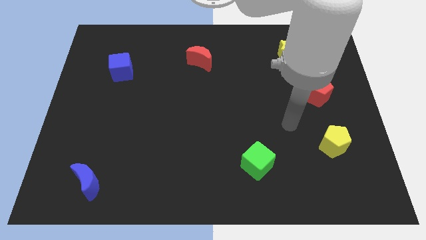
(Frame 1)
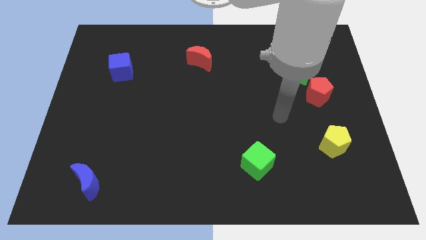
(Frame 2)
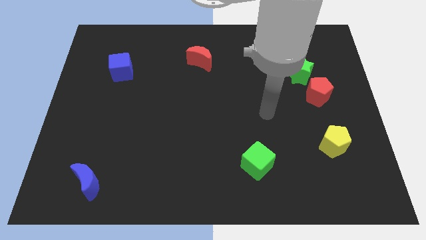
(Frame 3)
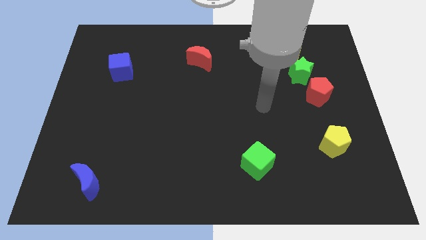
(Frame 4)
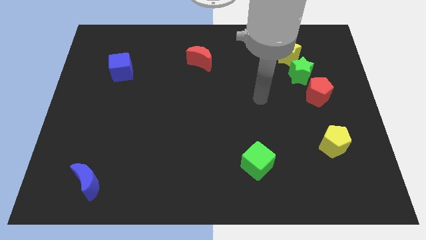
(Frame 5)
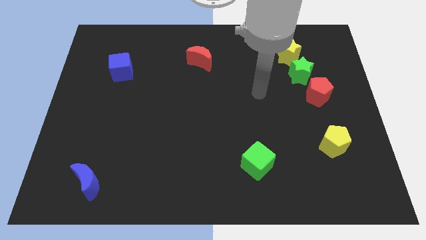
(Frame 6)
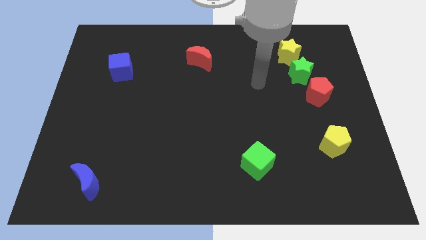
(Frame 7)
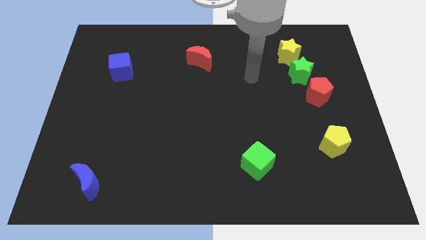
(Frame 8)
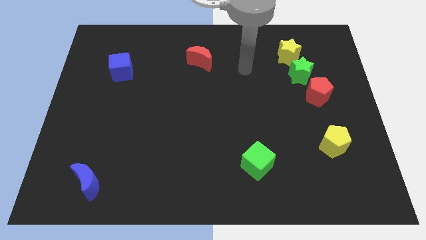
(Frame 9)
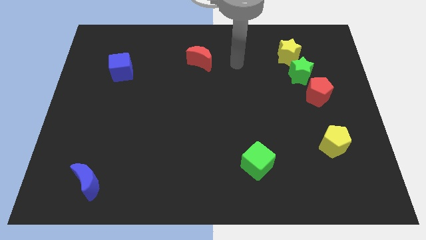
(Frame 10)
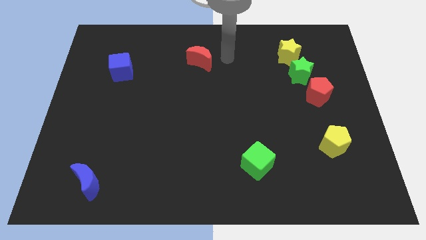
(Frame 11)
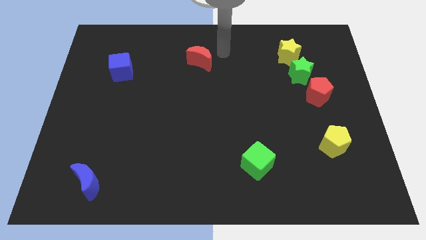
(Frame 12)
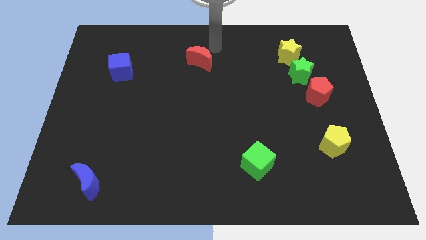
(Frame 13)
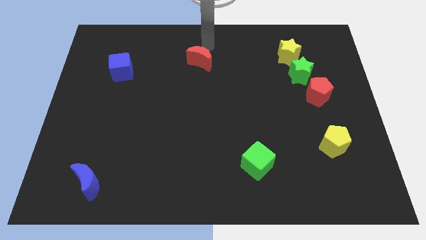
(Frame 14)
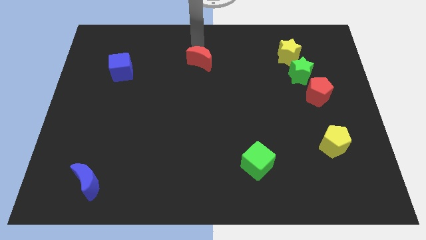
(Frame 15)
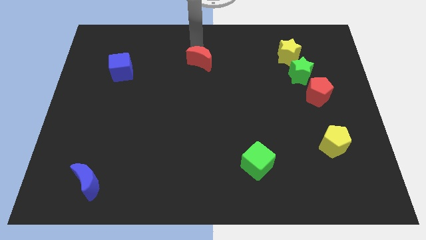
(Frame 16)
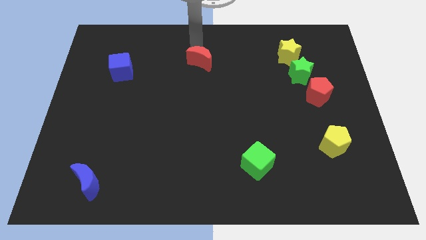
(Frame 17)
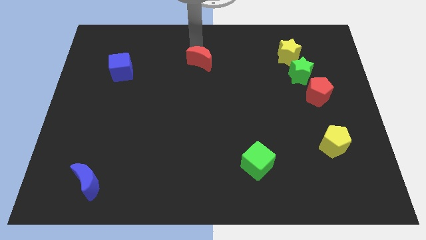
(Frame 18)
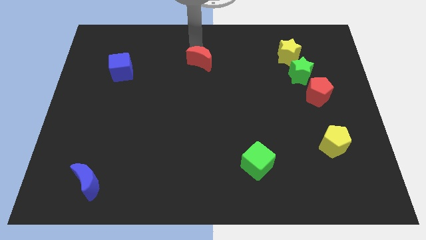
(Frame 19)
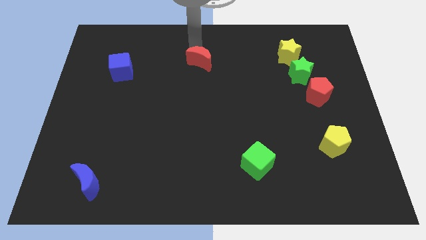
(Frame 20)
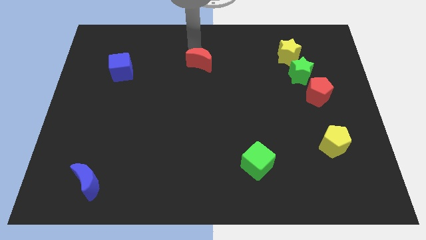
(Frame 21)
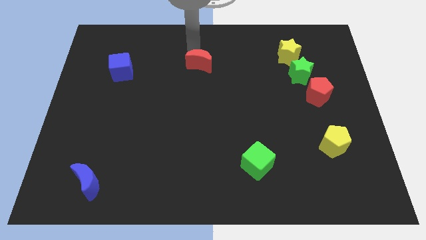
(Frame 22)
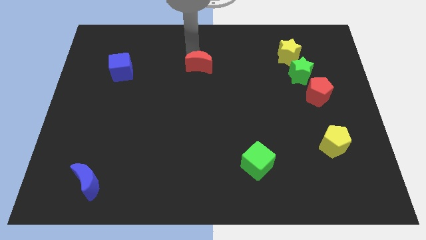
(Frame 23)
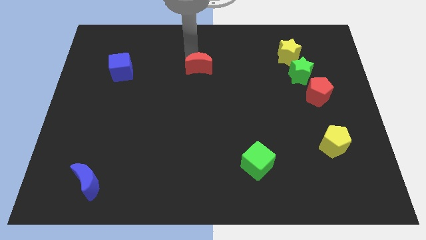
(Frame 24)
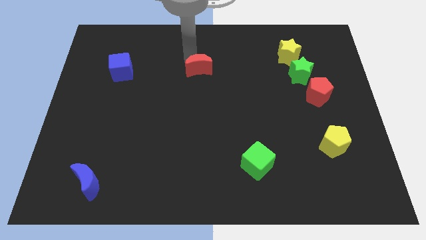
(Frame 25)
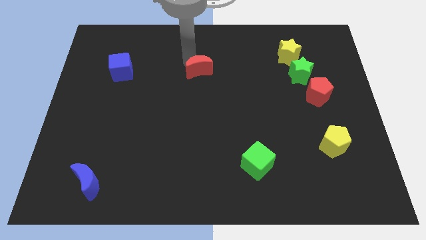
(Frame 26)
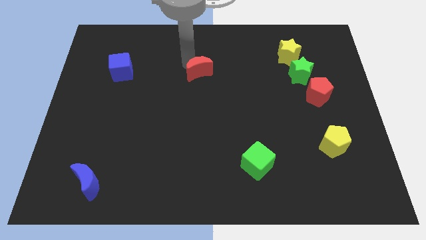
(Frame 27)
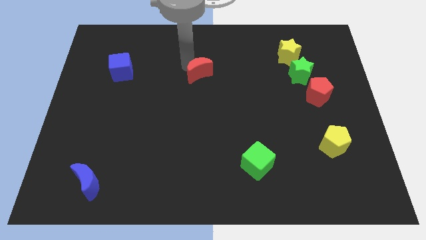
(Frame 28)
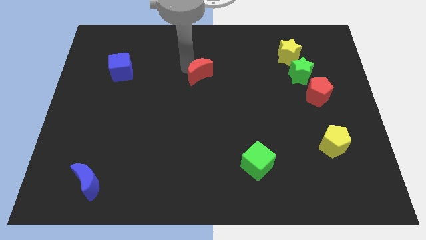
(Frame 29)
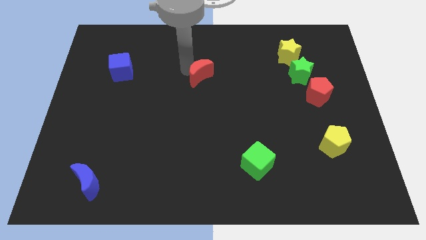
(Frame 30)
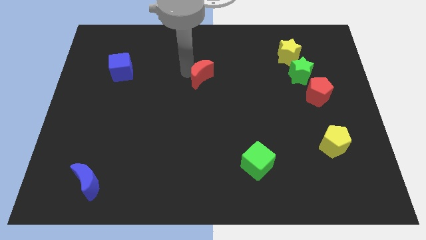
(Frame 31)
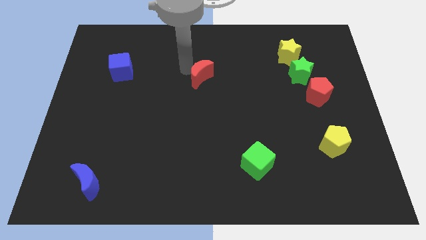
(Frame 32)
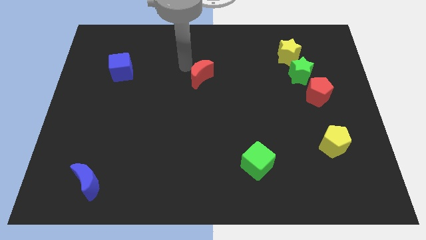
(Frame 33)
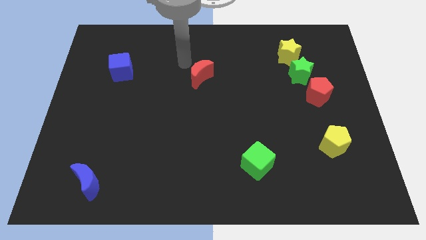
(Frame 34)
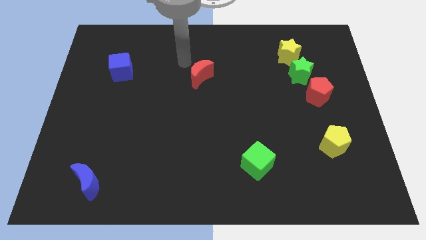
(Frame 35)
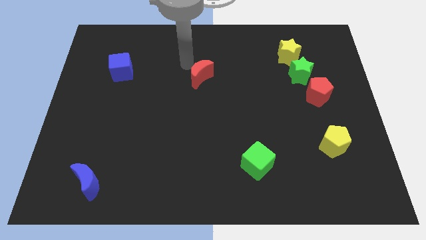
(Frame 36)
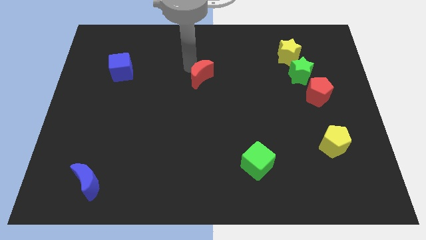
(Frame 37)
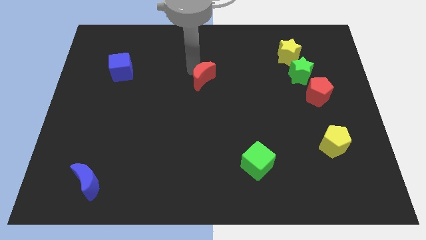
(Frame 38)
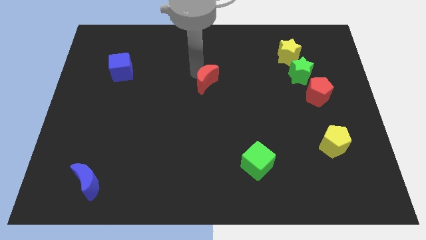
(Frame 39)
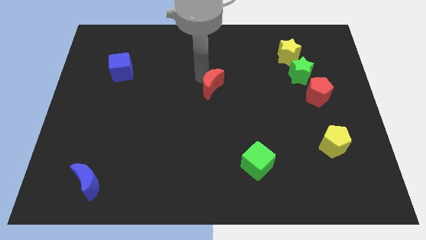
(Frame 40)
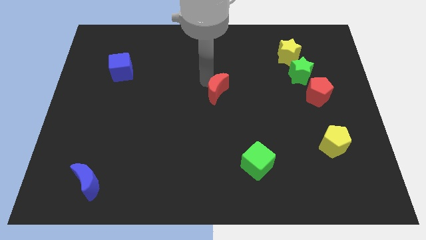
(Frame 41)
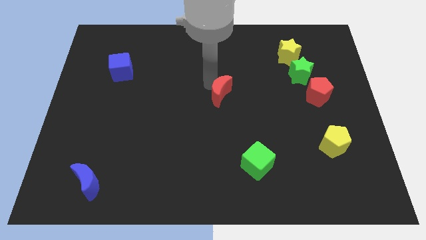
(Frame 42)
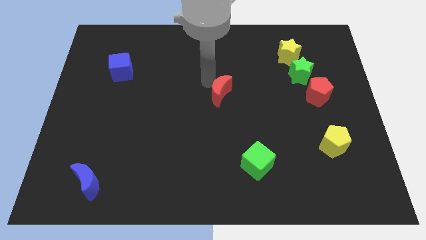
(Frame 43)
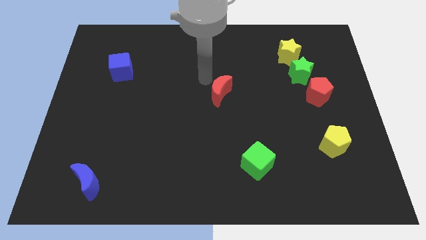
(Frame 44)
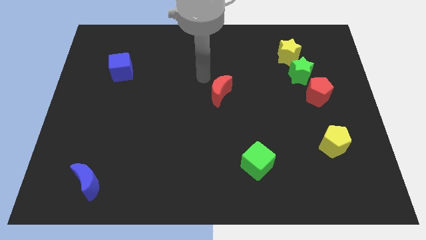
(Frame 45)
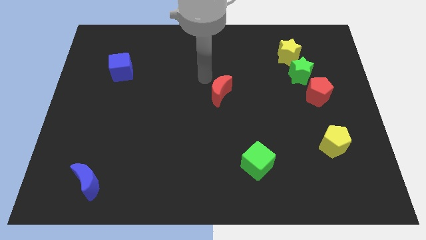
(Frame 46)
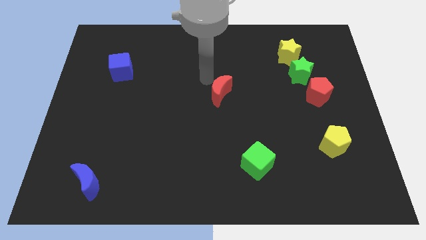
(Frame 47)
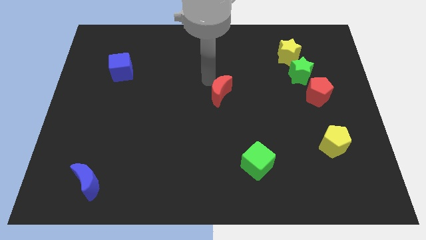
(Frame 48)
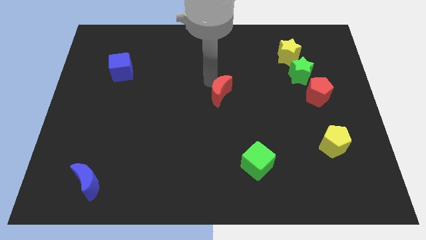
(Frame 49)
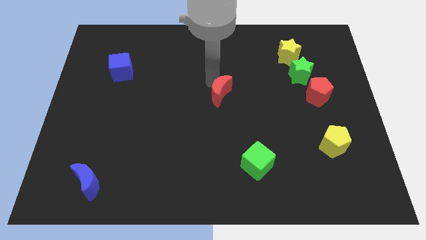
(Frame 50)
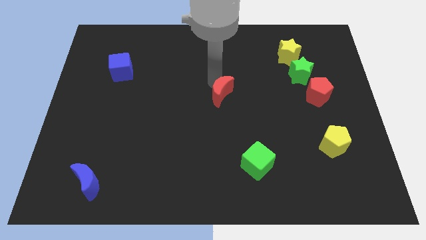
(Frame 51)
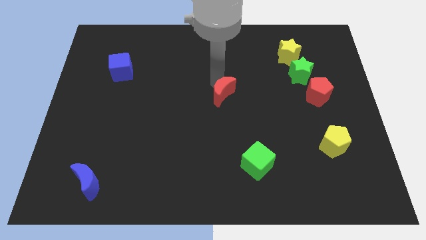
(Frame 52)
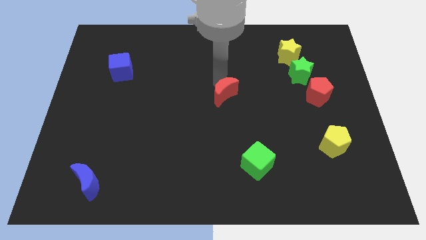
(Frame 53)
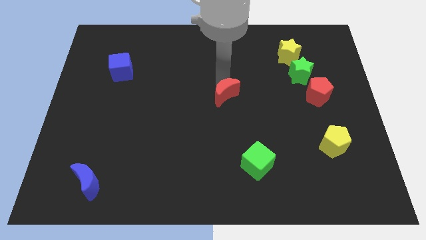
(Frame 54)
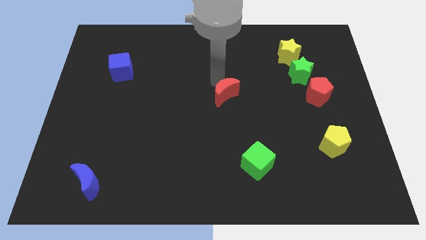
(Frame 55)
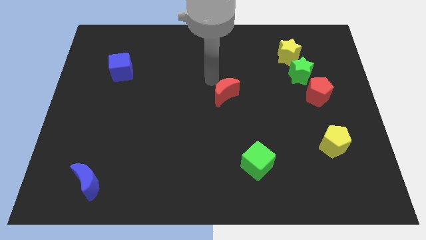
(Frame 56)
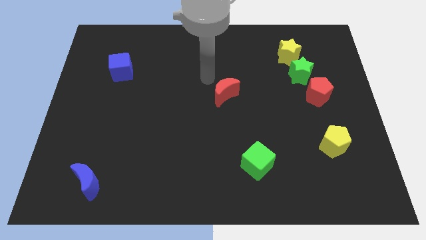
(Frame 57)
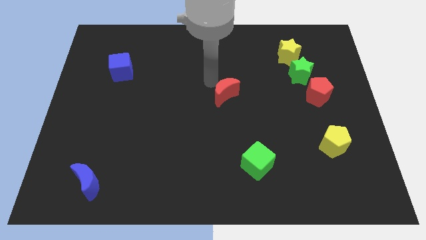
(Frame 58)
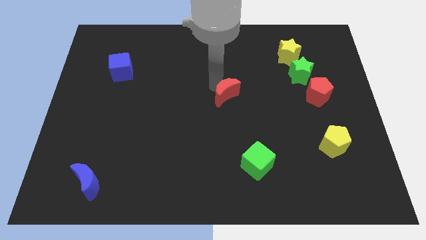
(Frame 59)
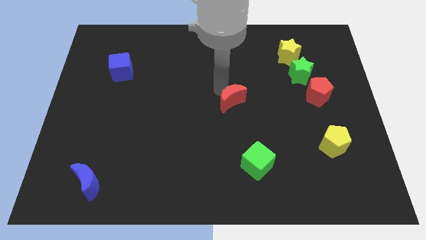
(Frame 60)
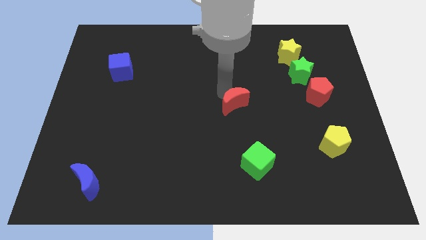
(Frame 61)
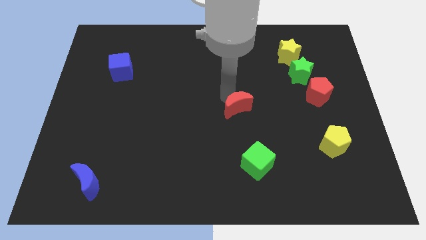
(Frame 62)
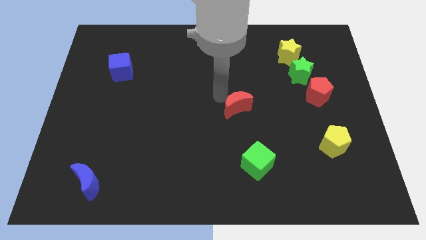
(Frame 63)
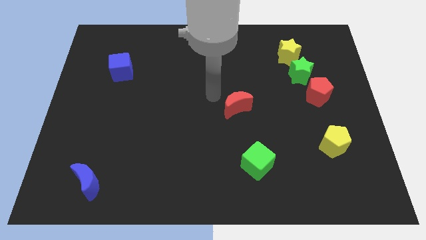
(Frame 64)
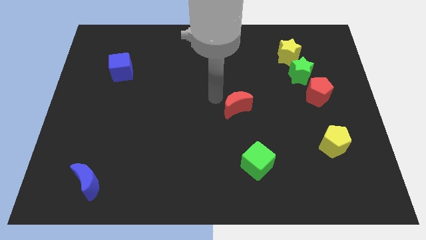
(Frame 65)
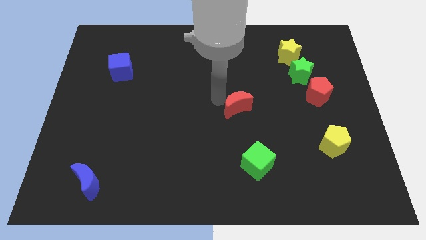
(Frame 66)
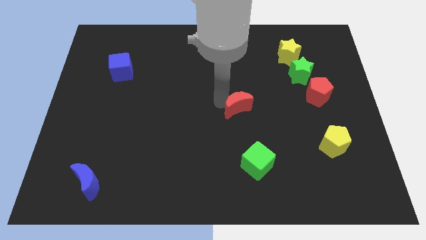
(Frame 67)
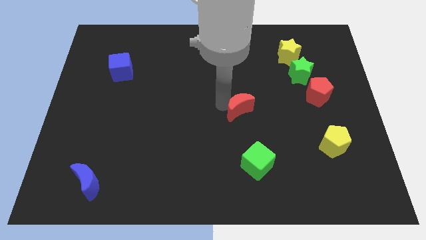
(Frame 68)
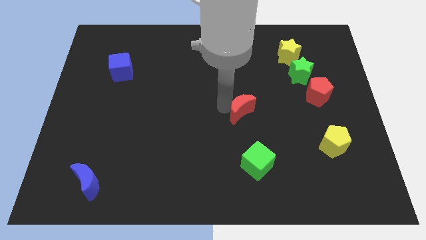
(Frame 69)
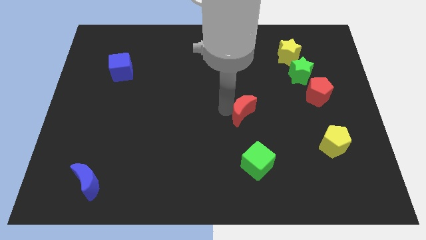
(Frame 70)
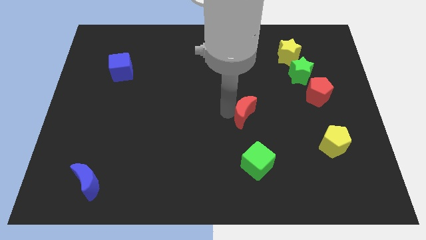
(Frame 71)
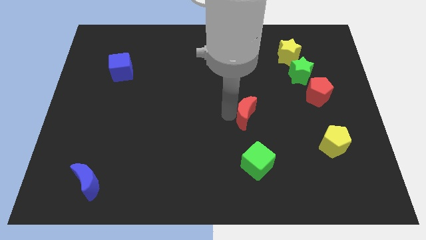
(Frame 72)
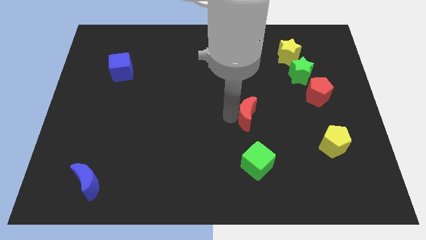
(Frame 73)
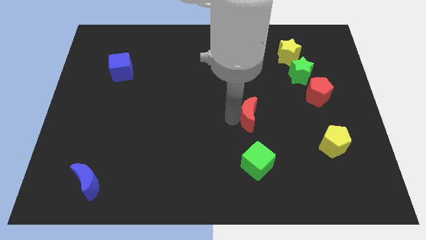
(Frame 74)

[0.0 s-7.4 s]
push the red moon diagonally down and right

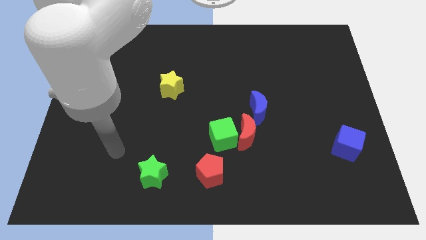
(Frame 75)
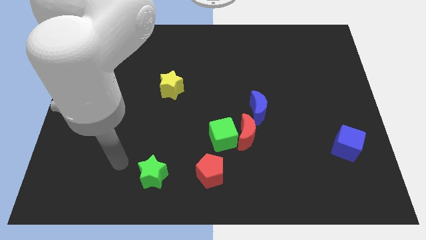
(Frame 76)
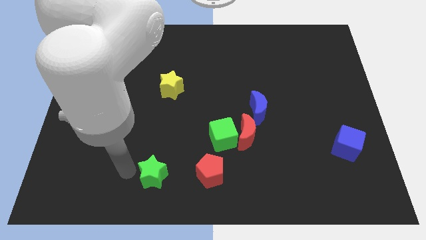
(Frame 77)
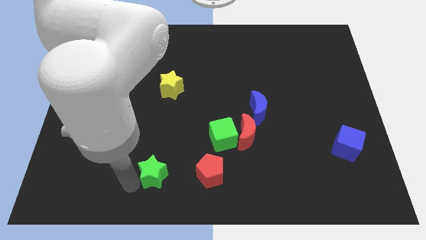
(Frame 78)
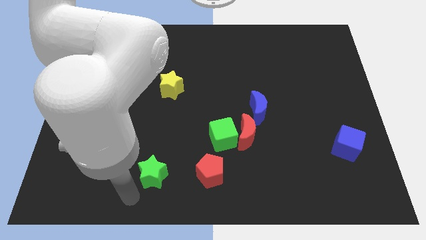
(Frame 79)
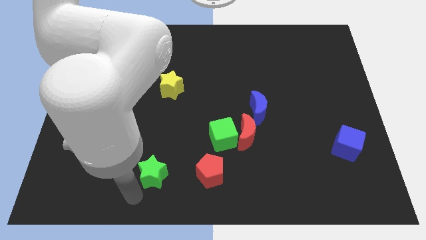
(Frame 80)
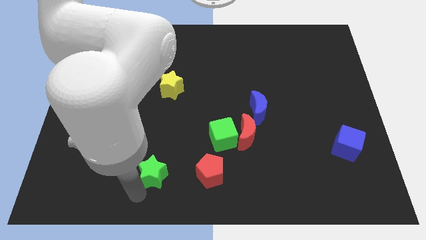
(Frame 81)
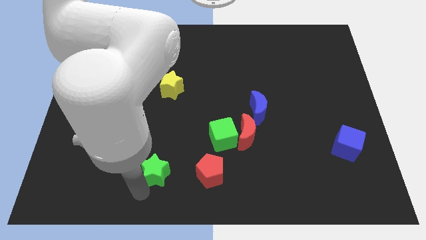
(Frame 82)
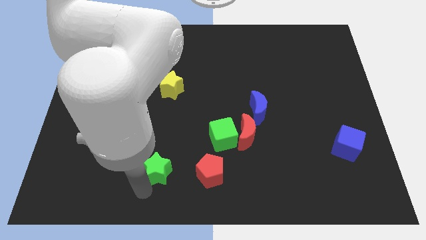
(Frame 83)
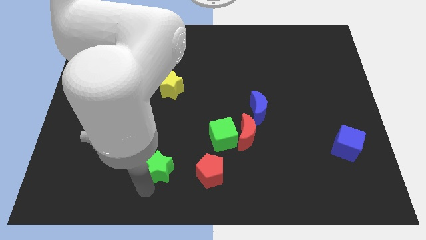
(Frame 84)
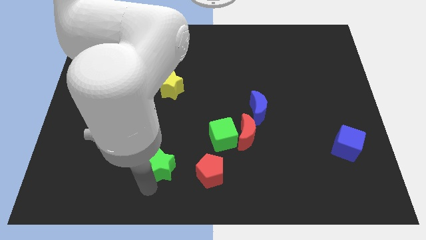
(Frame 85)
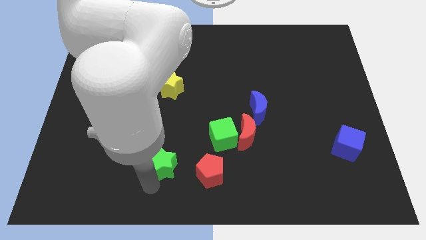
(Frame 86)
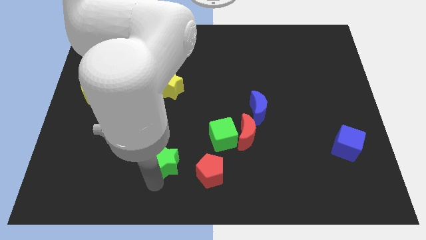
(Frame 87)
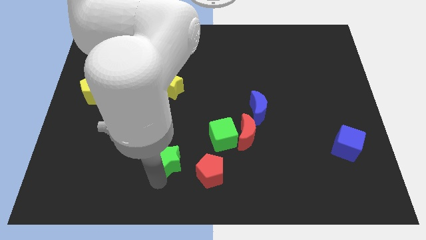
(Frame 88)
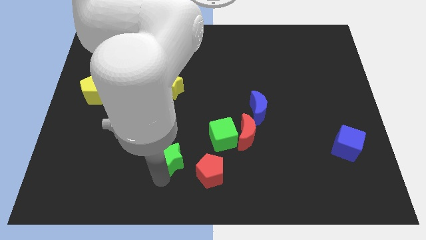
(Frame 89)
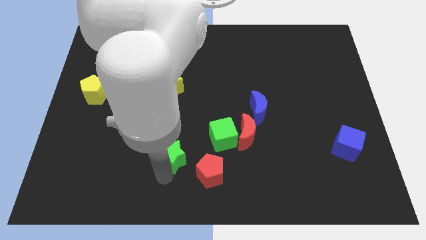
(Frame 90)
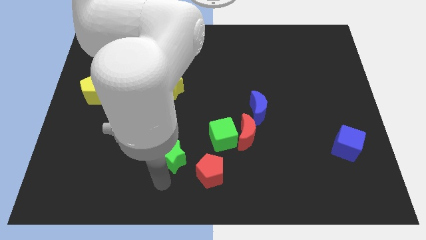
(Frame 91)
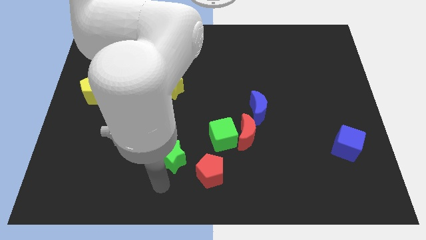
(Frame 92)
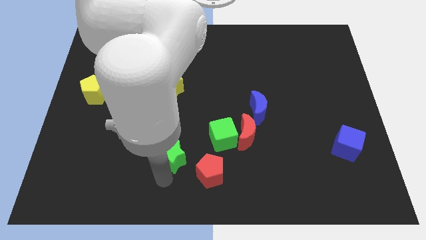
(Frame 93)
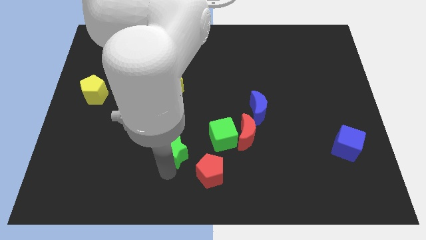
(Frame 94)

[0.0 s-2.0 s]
move the green star slightly up and then to the right
